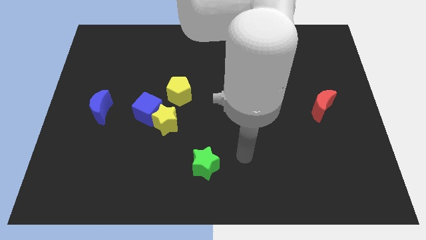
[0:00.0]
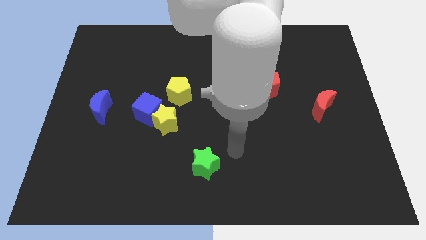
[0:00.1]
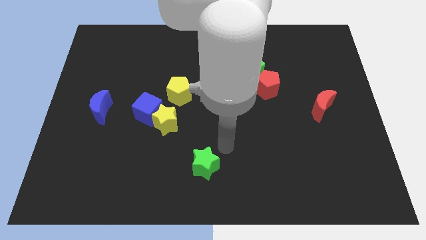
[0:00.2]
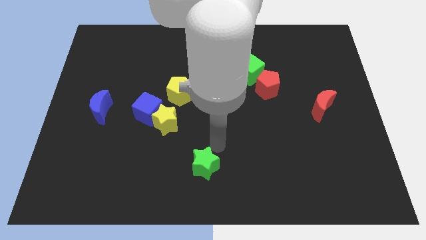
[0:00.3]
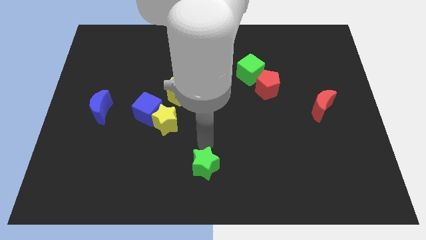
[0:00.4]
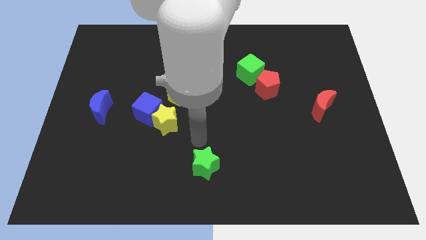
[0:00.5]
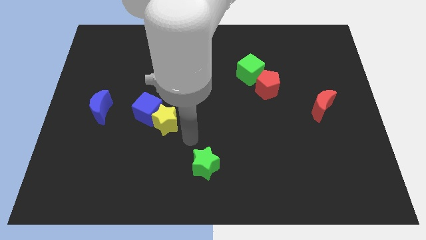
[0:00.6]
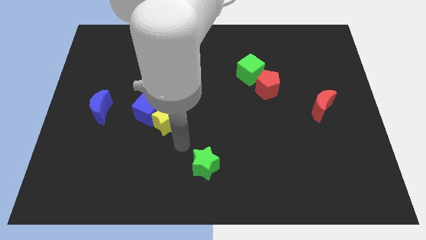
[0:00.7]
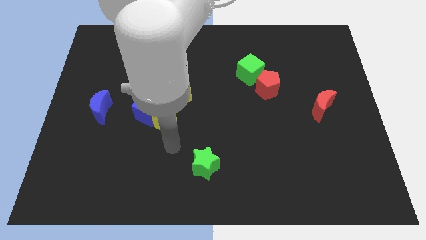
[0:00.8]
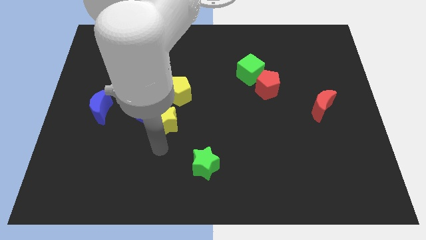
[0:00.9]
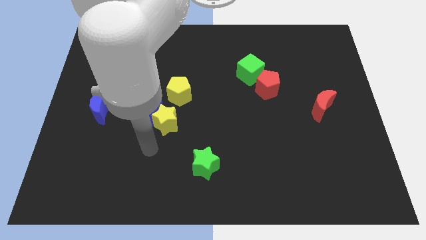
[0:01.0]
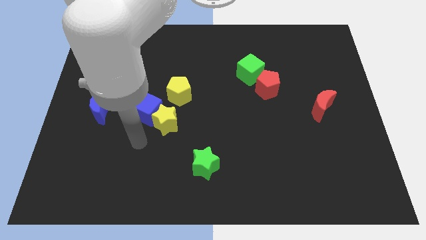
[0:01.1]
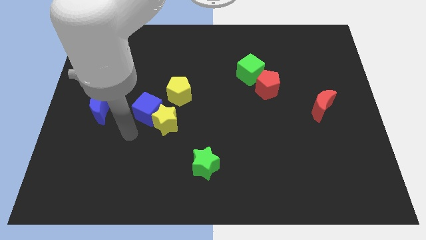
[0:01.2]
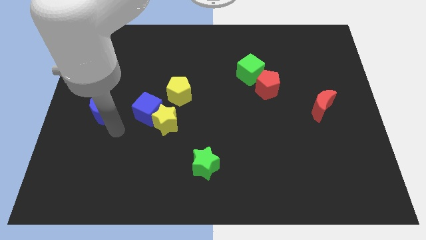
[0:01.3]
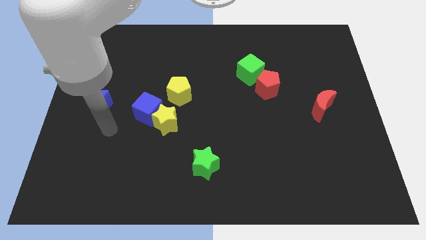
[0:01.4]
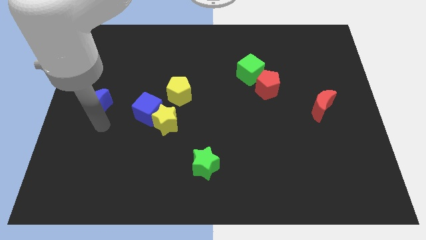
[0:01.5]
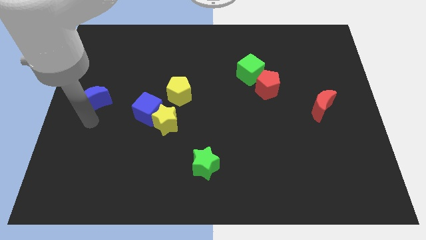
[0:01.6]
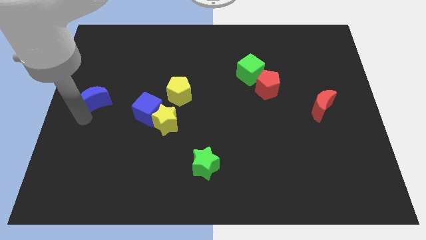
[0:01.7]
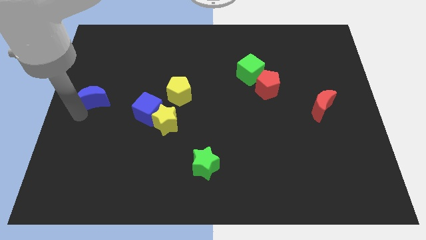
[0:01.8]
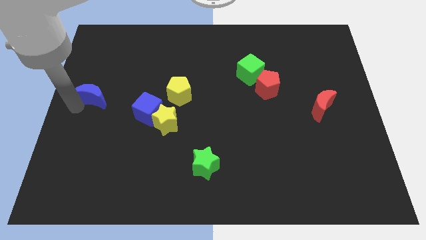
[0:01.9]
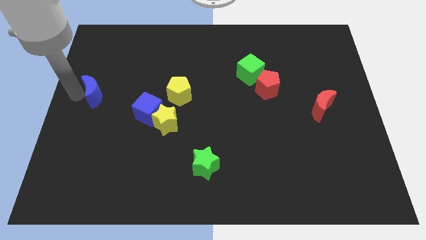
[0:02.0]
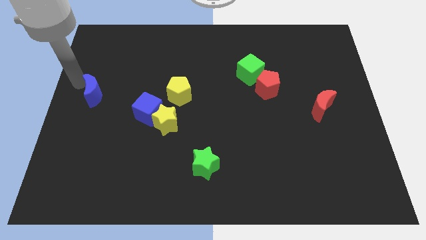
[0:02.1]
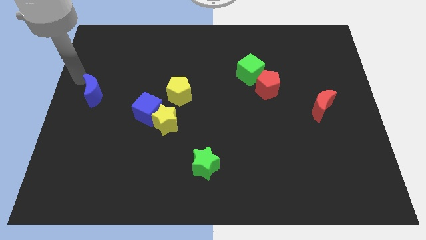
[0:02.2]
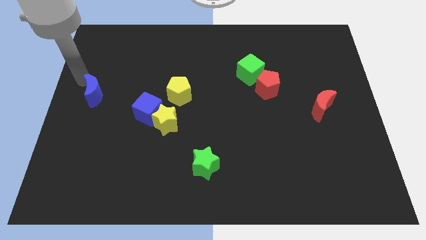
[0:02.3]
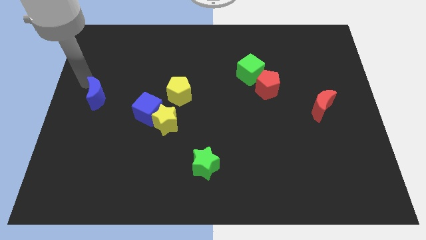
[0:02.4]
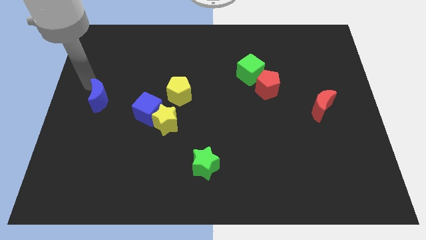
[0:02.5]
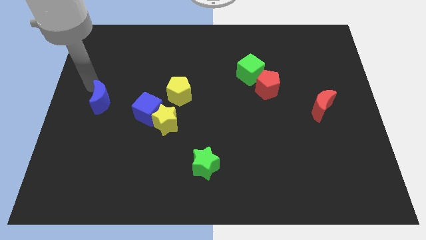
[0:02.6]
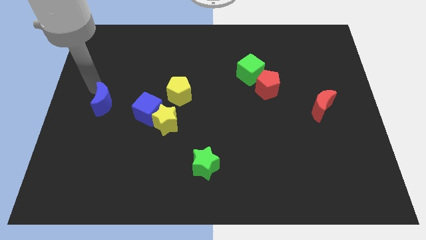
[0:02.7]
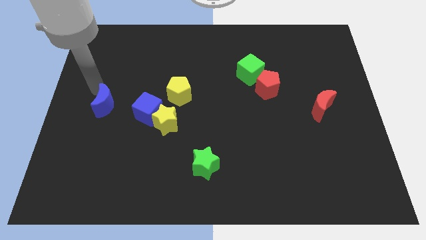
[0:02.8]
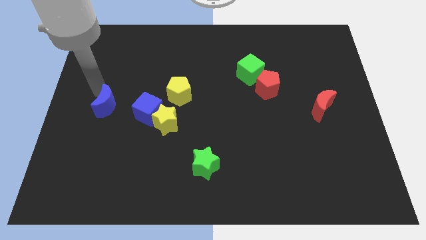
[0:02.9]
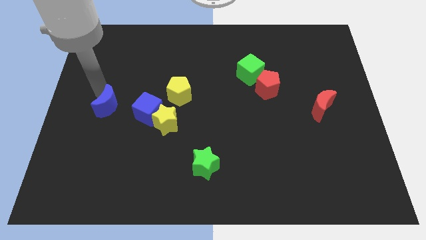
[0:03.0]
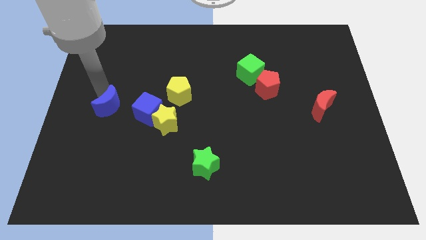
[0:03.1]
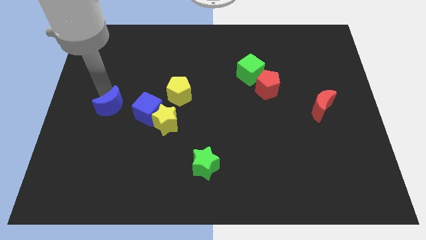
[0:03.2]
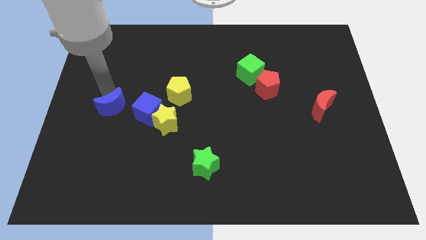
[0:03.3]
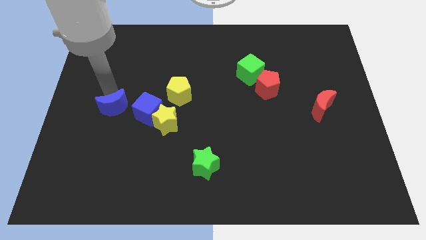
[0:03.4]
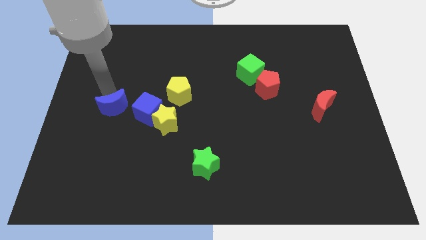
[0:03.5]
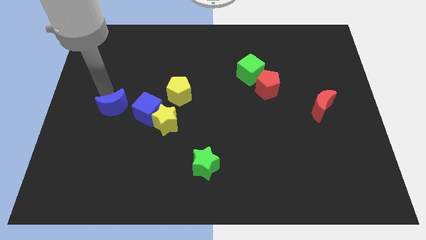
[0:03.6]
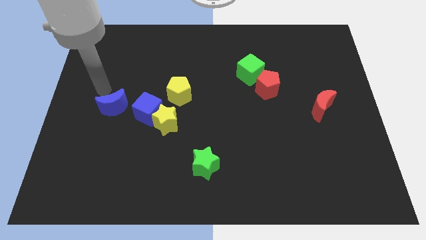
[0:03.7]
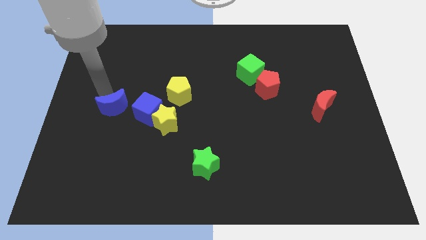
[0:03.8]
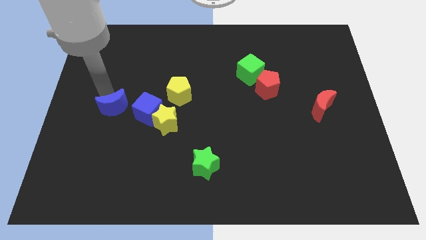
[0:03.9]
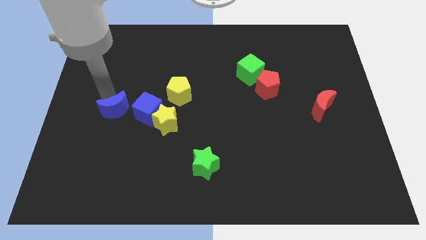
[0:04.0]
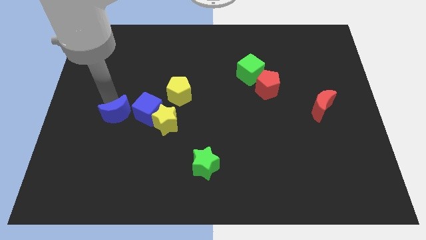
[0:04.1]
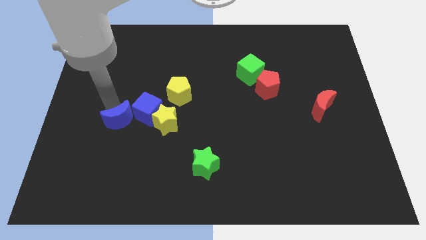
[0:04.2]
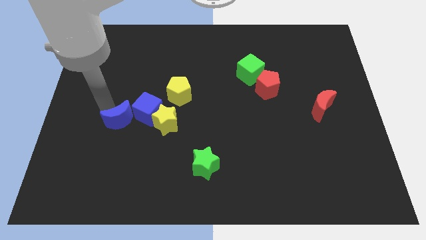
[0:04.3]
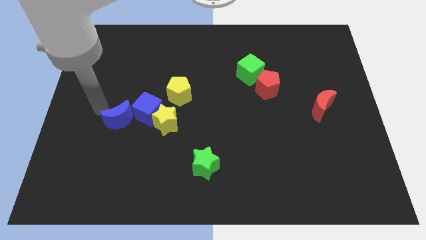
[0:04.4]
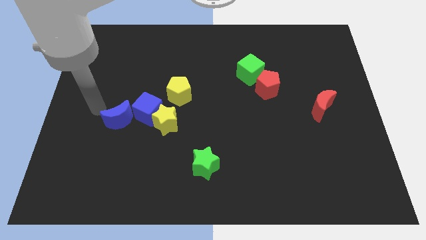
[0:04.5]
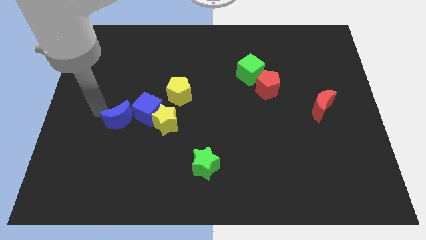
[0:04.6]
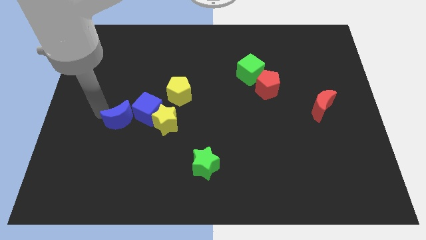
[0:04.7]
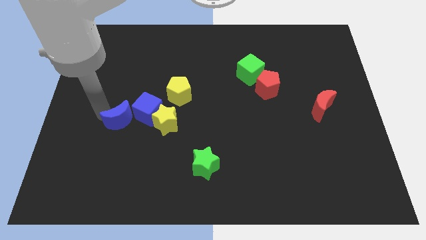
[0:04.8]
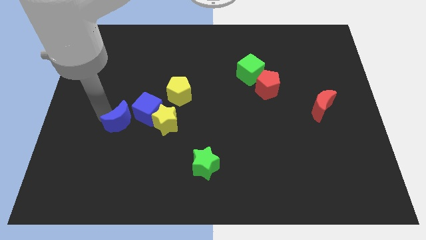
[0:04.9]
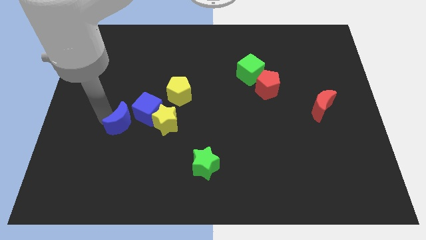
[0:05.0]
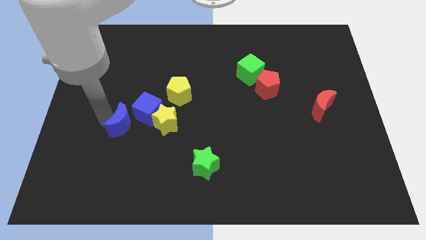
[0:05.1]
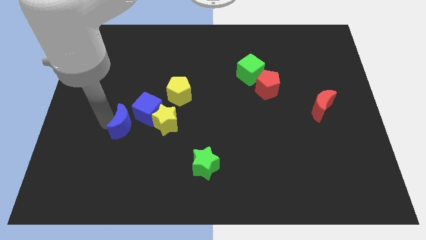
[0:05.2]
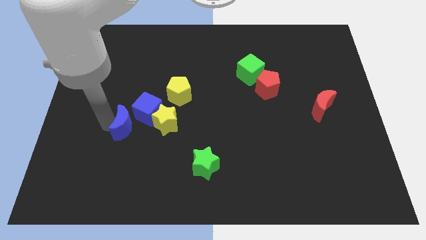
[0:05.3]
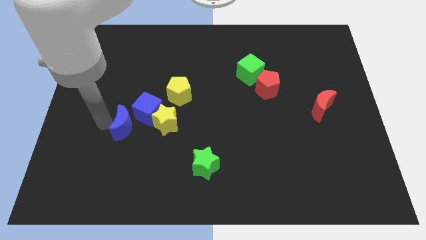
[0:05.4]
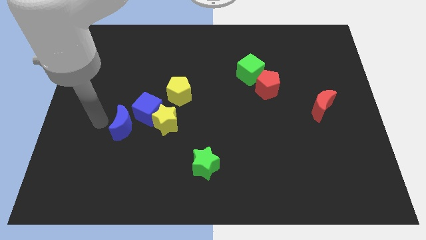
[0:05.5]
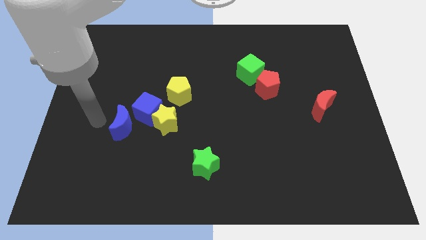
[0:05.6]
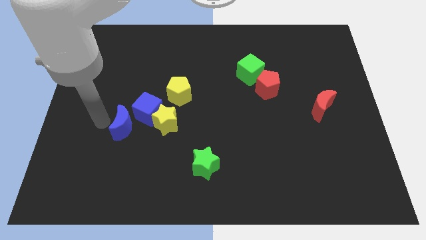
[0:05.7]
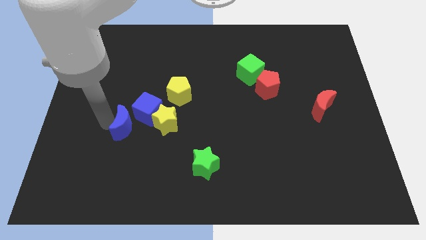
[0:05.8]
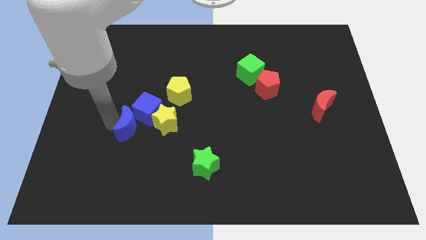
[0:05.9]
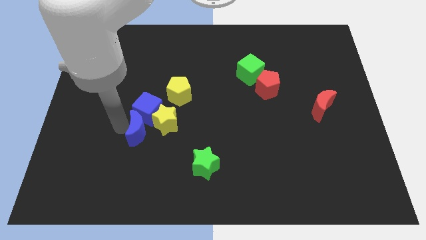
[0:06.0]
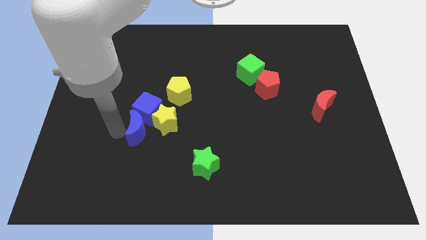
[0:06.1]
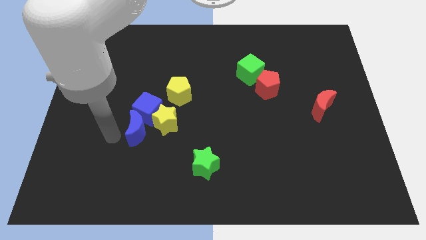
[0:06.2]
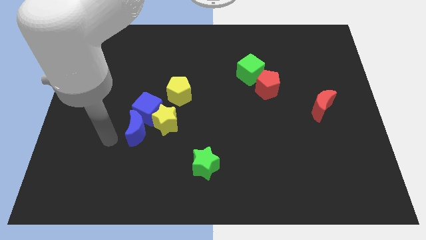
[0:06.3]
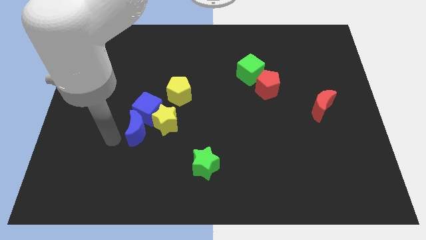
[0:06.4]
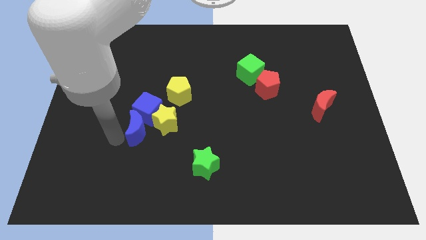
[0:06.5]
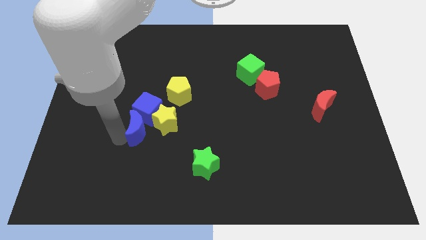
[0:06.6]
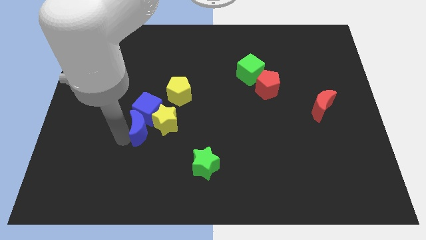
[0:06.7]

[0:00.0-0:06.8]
push the blue moon towards the yellow star

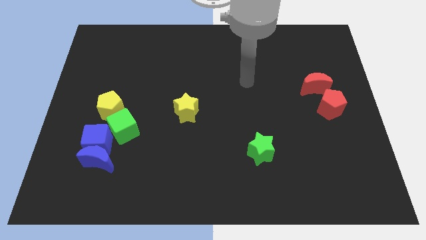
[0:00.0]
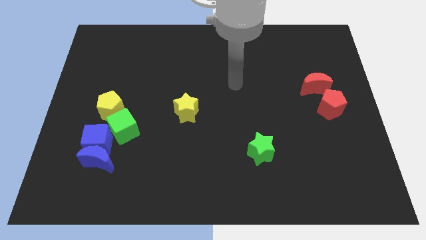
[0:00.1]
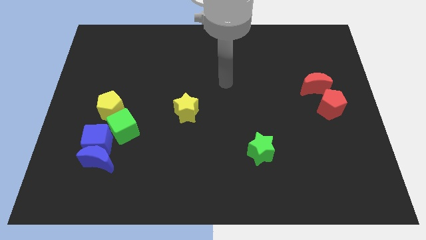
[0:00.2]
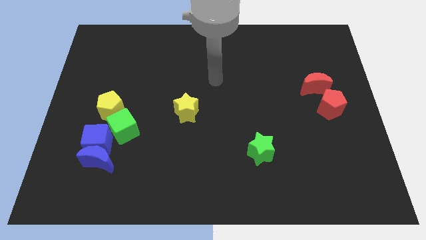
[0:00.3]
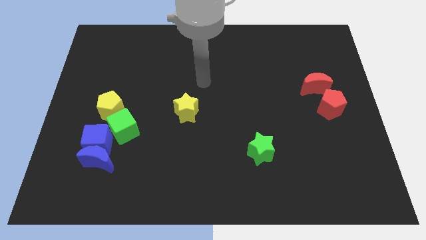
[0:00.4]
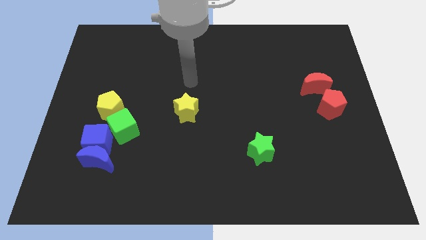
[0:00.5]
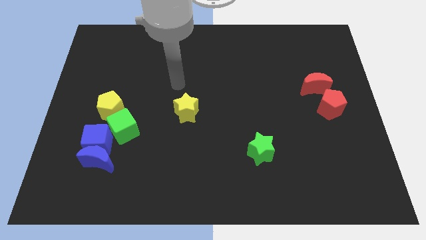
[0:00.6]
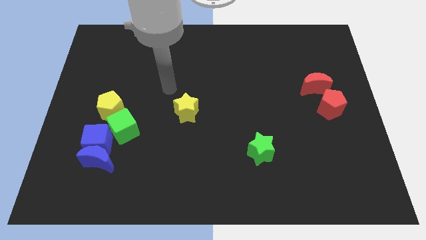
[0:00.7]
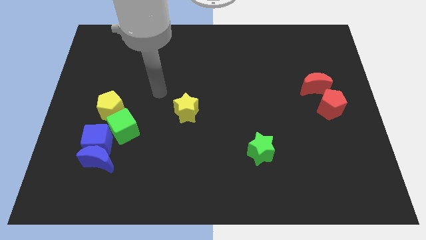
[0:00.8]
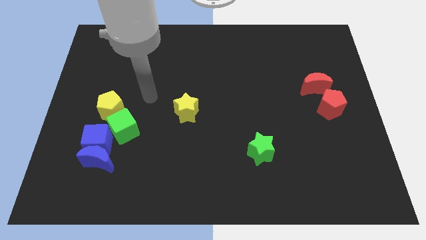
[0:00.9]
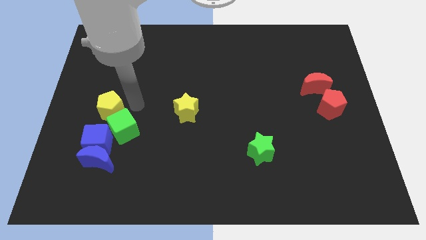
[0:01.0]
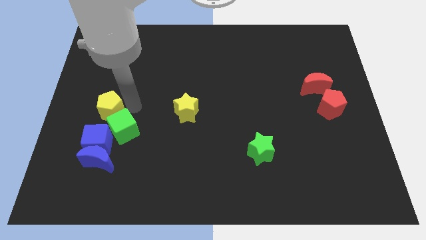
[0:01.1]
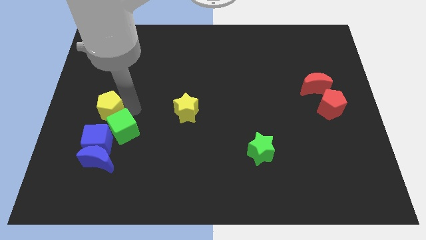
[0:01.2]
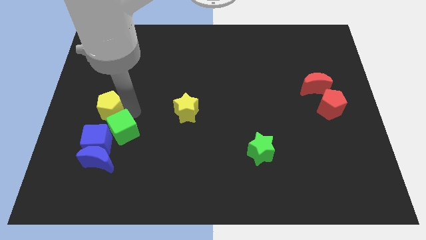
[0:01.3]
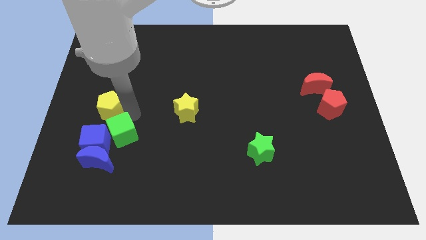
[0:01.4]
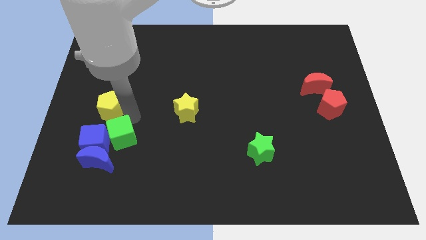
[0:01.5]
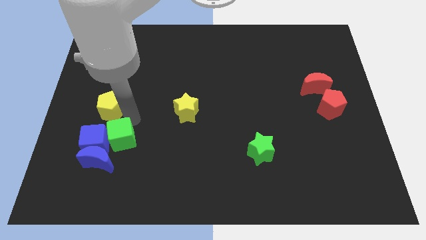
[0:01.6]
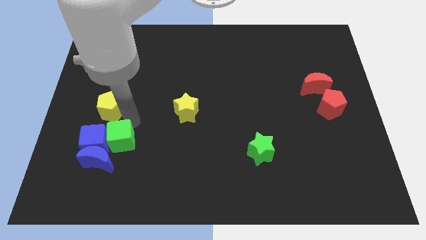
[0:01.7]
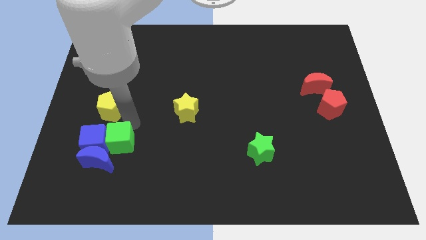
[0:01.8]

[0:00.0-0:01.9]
put the green cube close to the blue moon
